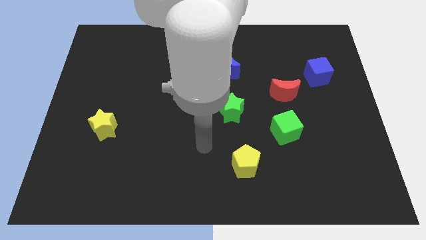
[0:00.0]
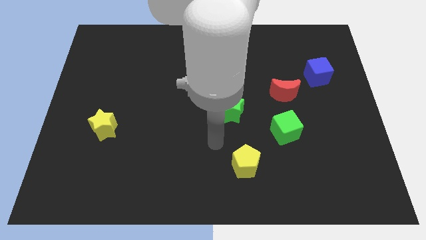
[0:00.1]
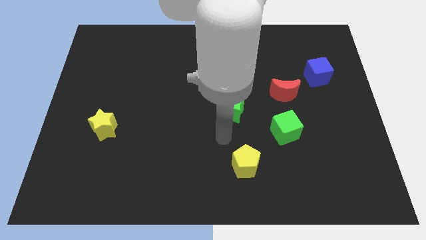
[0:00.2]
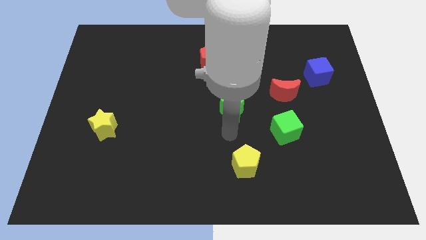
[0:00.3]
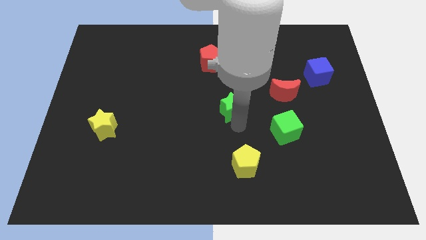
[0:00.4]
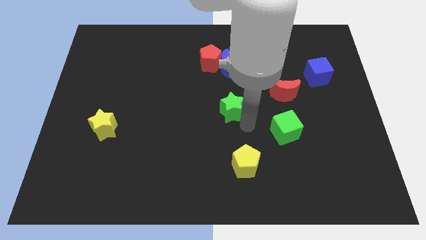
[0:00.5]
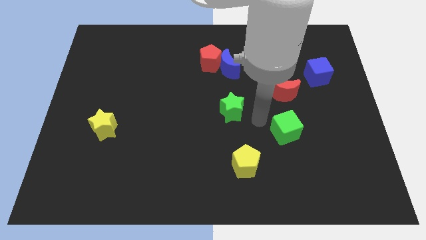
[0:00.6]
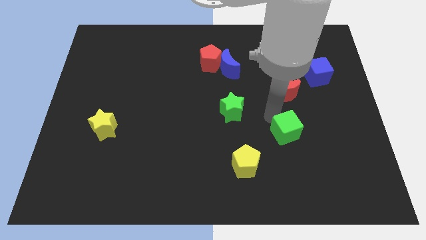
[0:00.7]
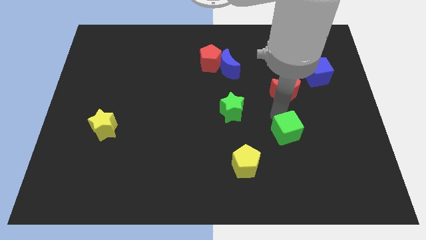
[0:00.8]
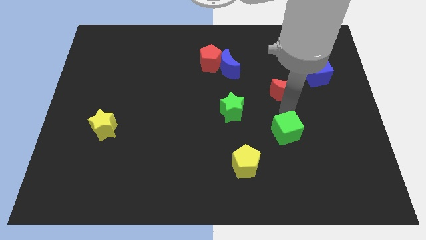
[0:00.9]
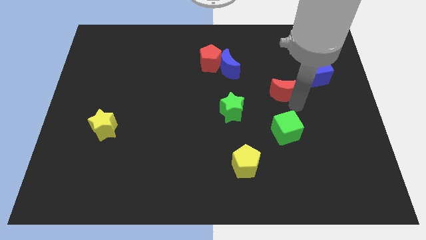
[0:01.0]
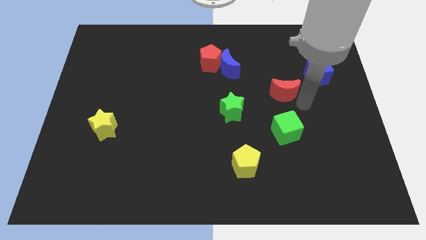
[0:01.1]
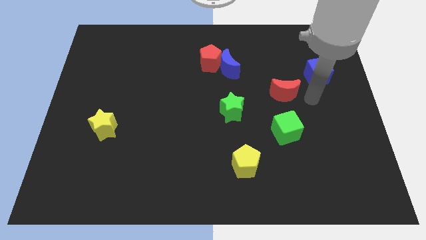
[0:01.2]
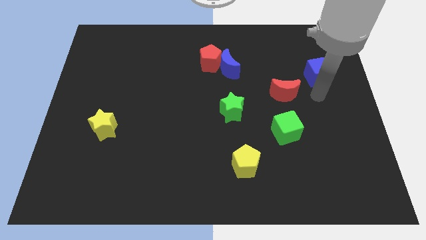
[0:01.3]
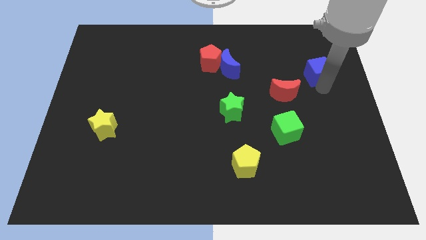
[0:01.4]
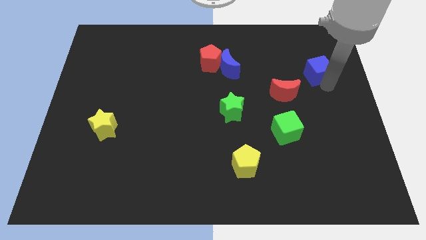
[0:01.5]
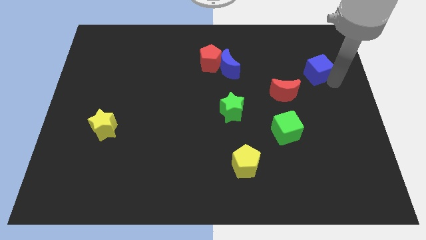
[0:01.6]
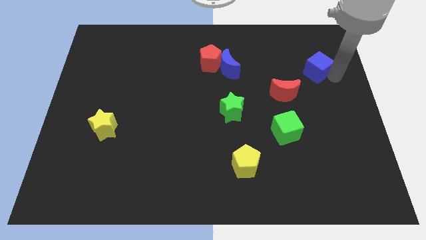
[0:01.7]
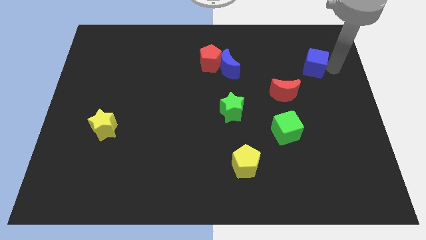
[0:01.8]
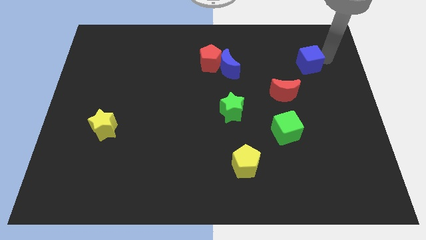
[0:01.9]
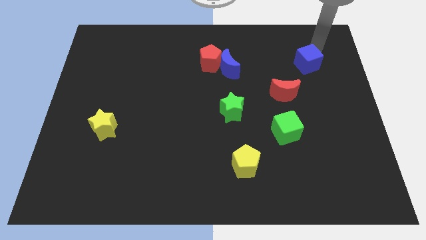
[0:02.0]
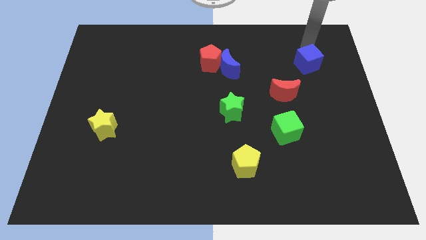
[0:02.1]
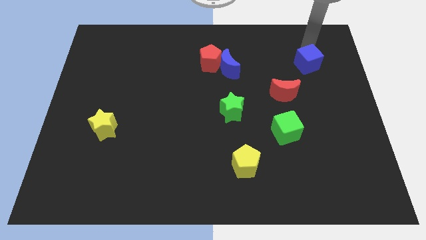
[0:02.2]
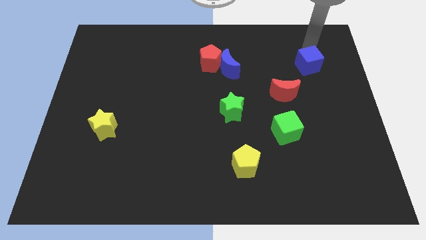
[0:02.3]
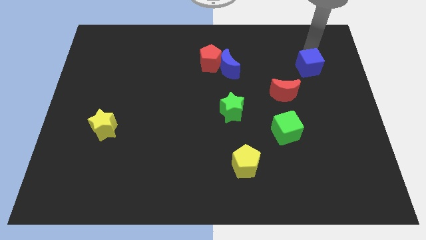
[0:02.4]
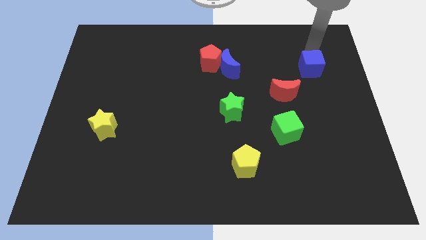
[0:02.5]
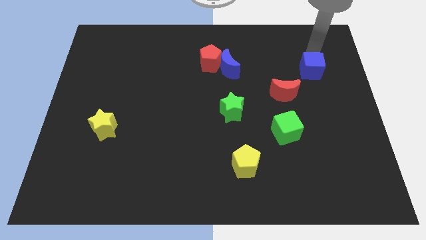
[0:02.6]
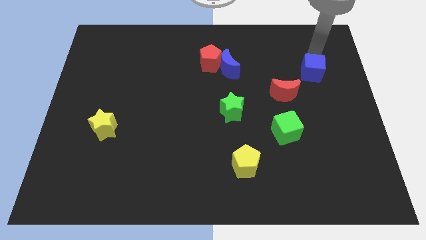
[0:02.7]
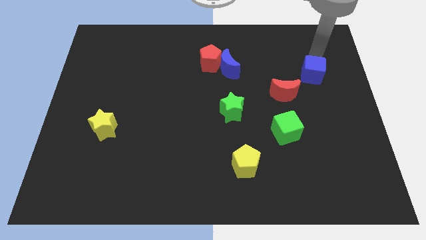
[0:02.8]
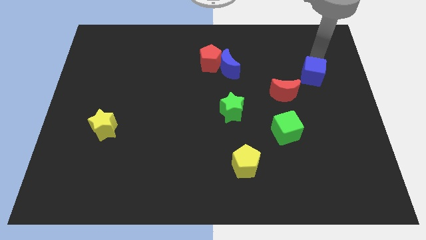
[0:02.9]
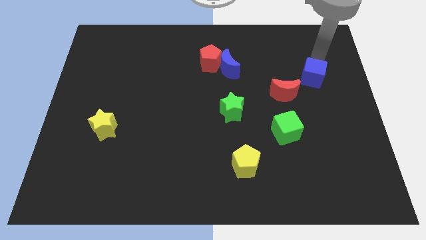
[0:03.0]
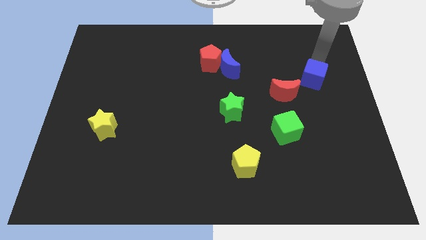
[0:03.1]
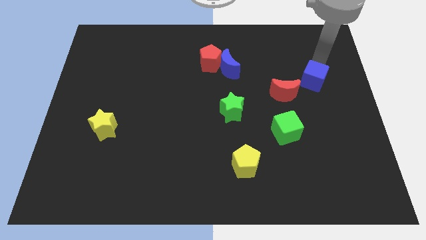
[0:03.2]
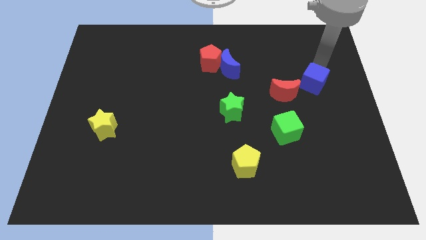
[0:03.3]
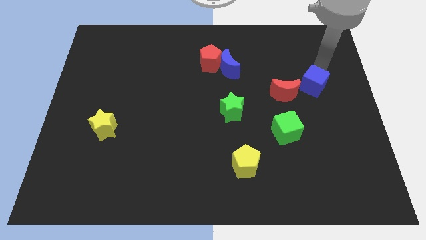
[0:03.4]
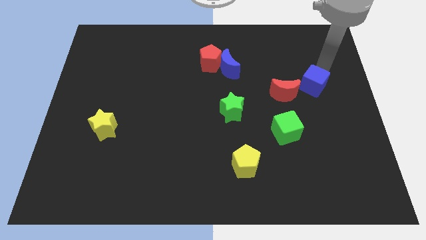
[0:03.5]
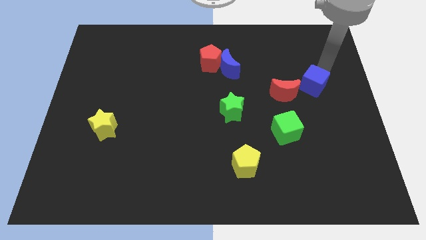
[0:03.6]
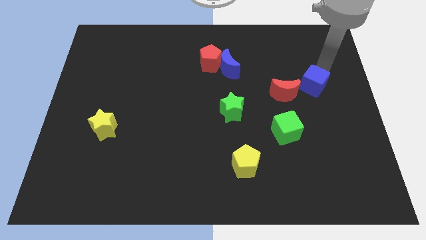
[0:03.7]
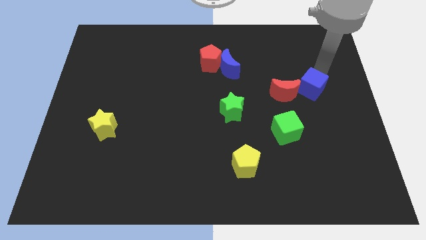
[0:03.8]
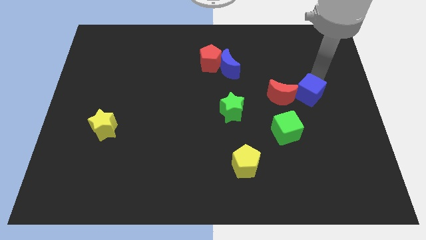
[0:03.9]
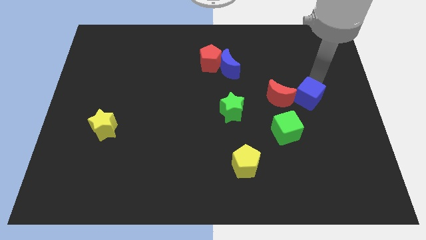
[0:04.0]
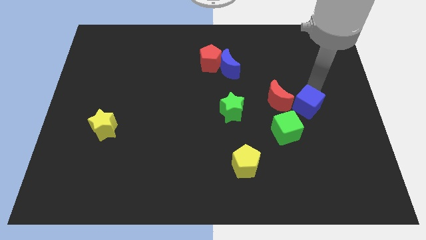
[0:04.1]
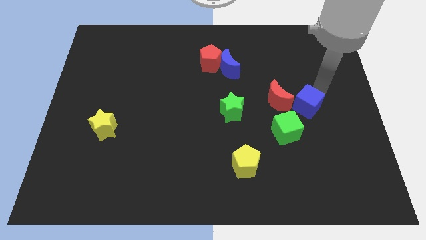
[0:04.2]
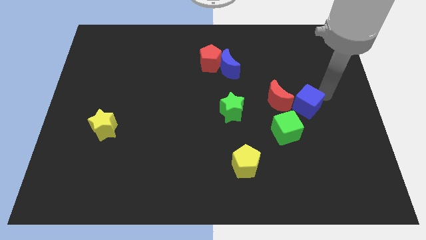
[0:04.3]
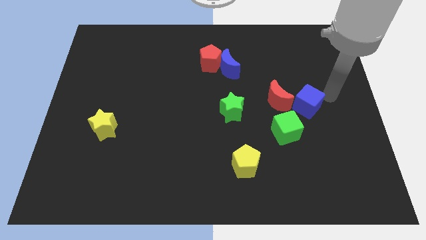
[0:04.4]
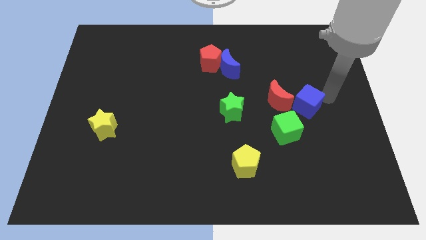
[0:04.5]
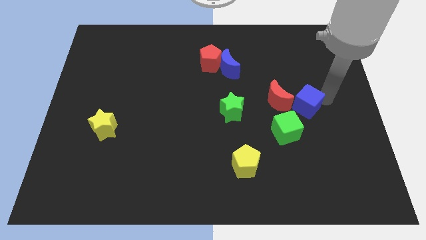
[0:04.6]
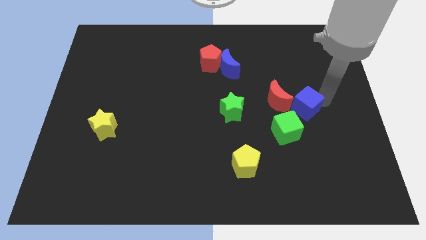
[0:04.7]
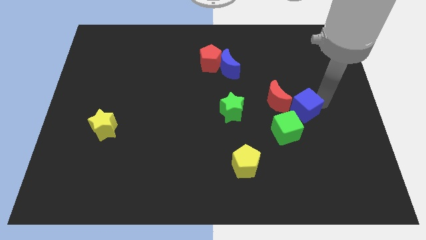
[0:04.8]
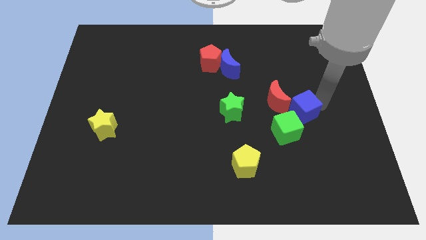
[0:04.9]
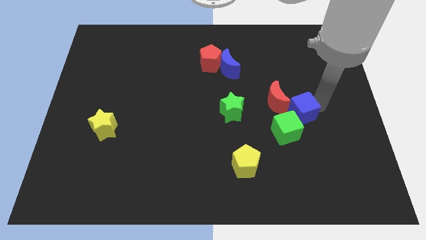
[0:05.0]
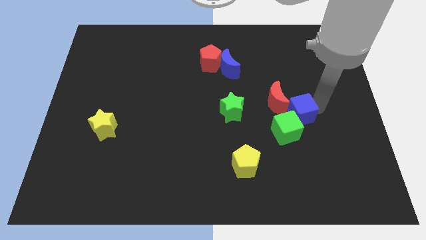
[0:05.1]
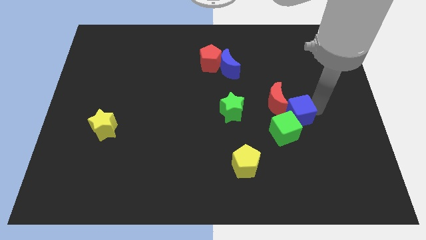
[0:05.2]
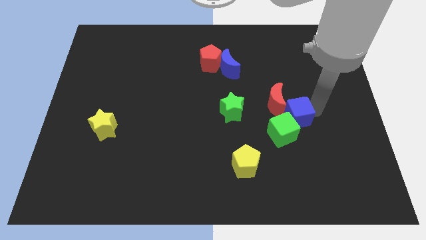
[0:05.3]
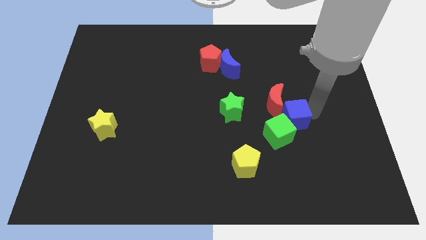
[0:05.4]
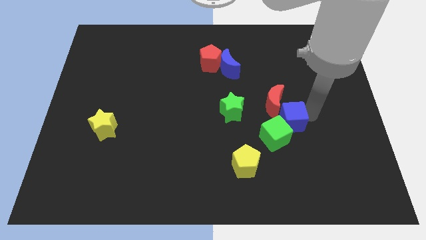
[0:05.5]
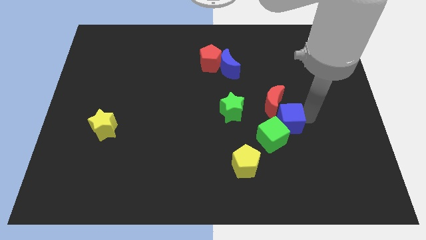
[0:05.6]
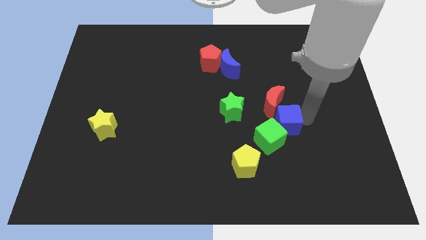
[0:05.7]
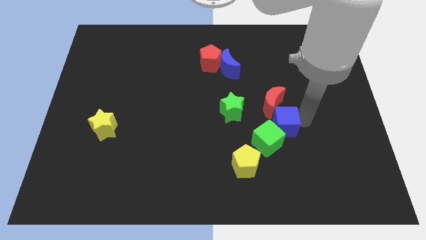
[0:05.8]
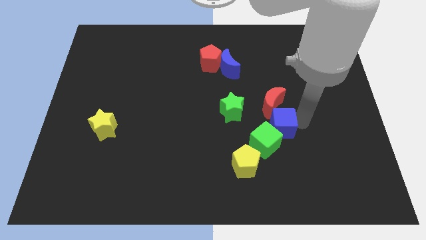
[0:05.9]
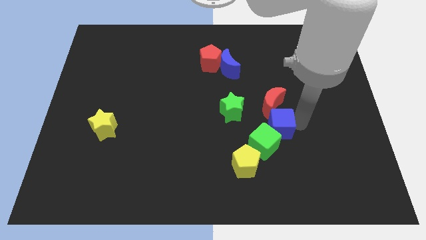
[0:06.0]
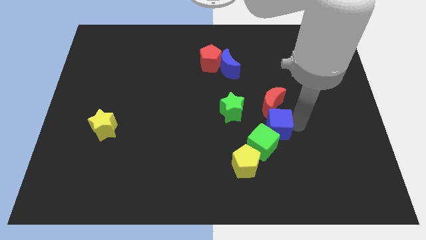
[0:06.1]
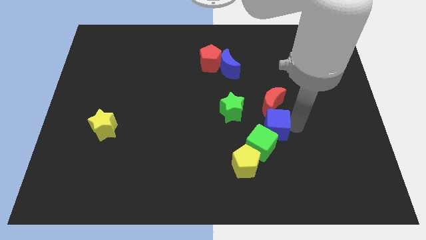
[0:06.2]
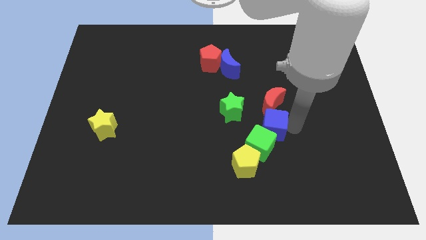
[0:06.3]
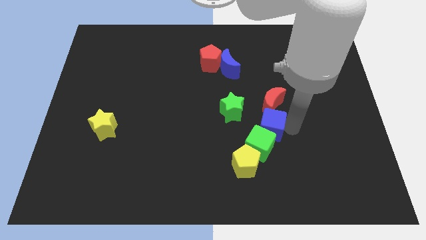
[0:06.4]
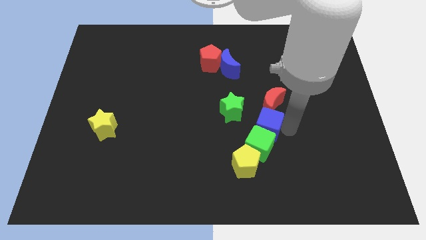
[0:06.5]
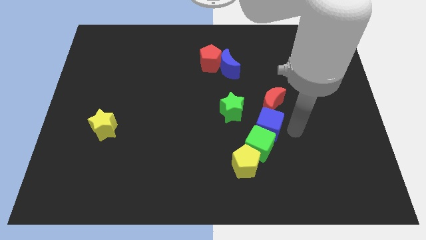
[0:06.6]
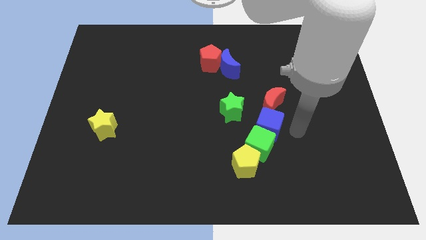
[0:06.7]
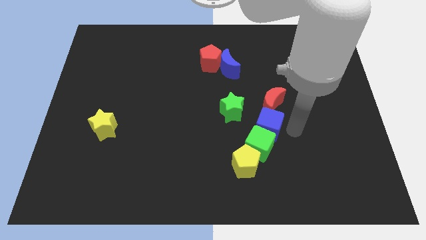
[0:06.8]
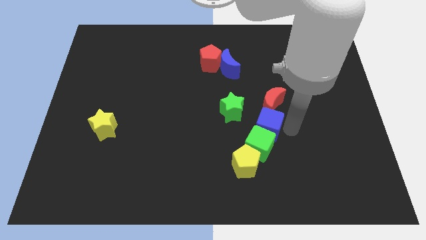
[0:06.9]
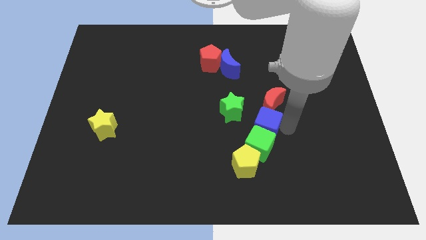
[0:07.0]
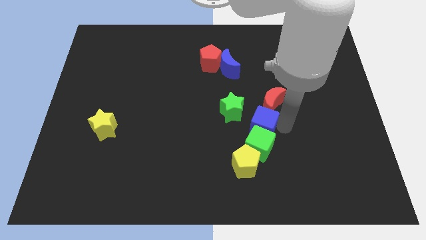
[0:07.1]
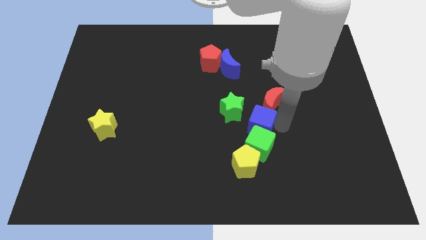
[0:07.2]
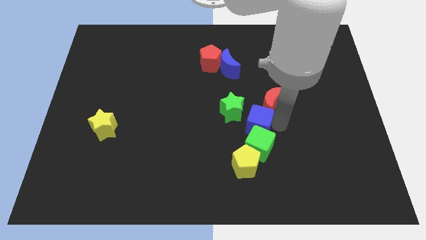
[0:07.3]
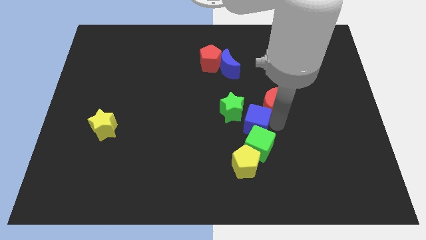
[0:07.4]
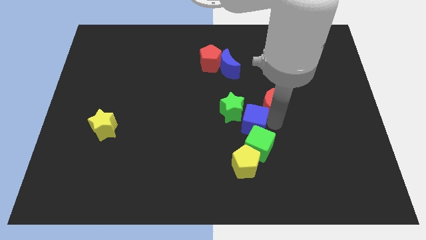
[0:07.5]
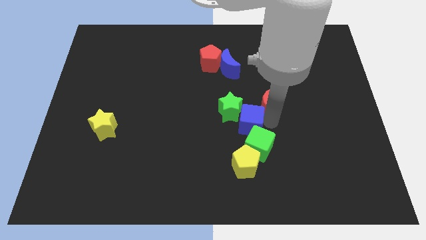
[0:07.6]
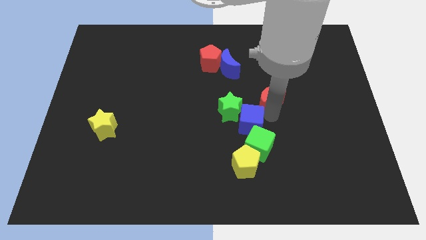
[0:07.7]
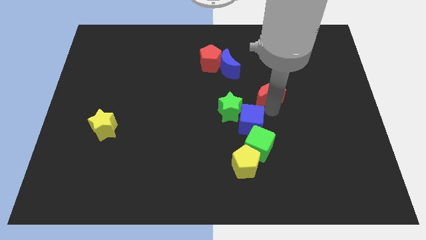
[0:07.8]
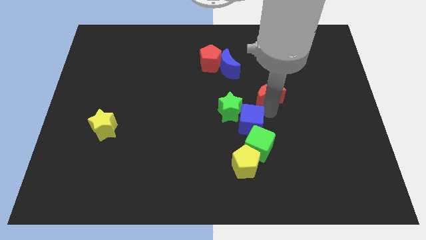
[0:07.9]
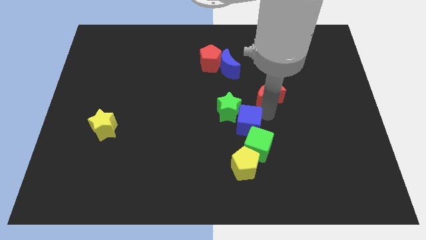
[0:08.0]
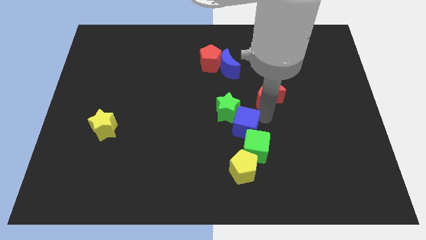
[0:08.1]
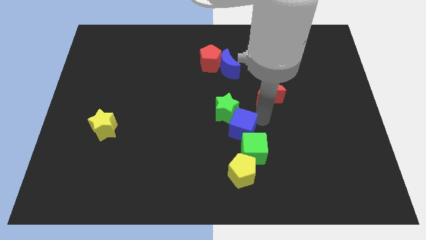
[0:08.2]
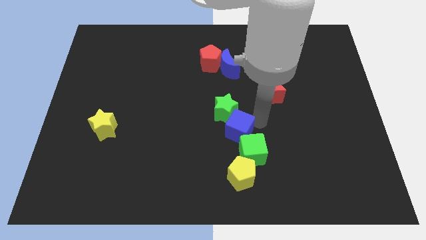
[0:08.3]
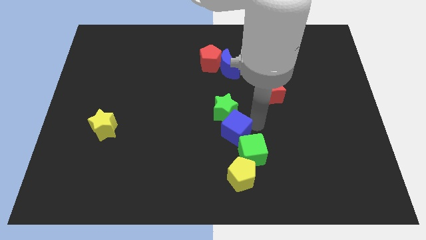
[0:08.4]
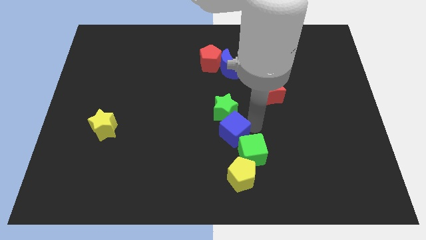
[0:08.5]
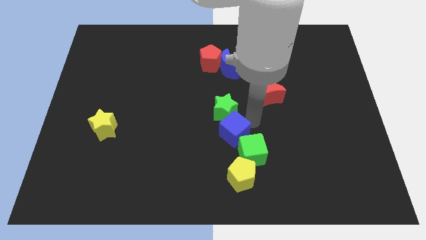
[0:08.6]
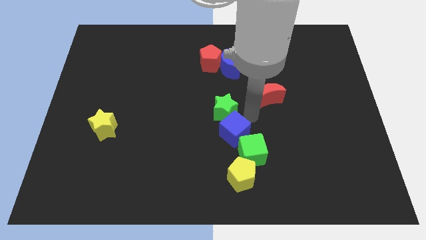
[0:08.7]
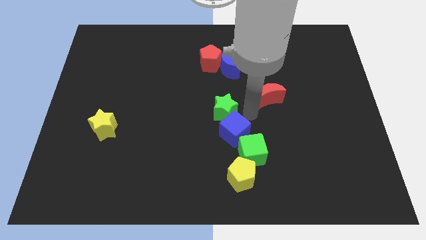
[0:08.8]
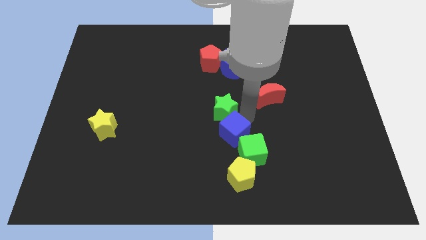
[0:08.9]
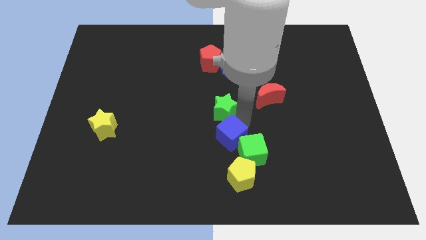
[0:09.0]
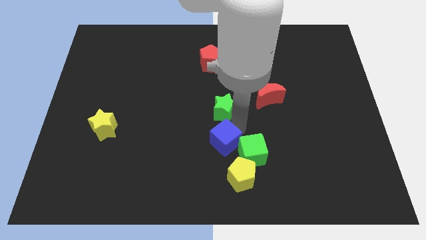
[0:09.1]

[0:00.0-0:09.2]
push the blue cube diagonally up and to the left of the yellow pentagon
